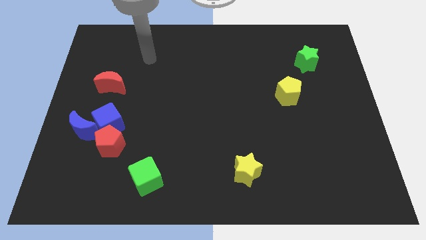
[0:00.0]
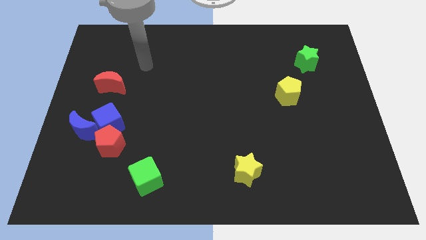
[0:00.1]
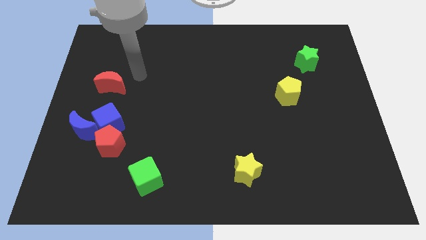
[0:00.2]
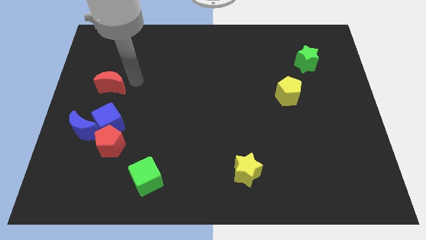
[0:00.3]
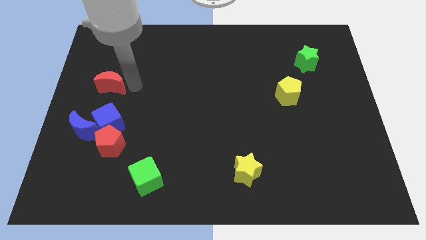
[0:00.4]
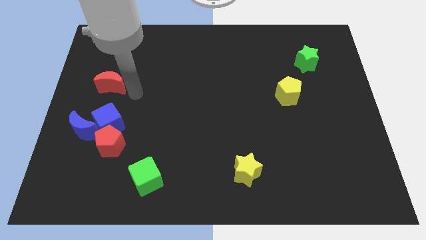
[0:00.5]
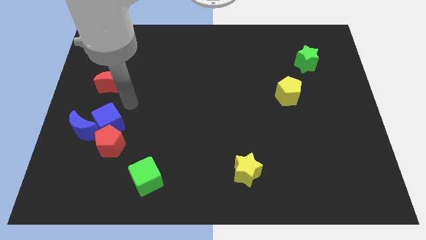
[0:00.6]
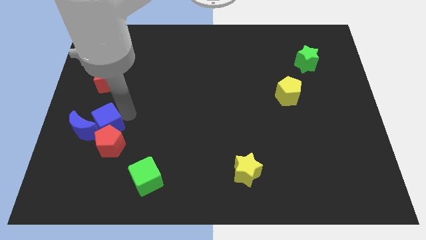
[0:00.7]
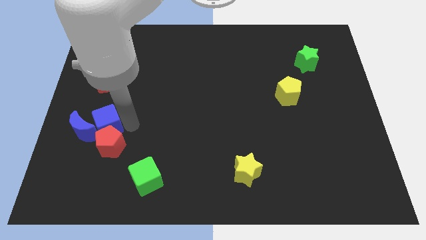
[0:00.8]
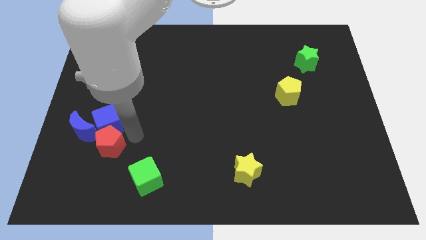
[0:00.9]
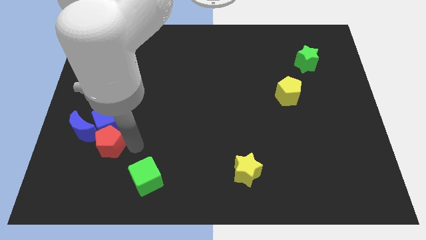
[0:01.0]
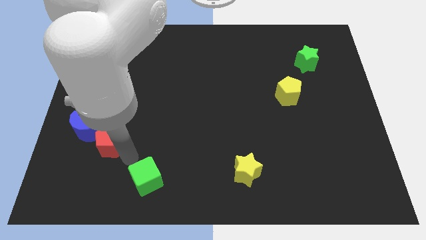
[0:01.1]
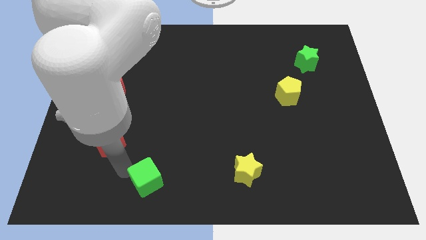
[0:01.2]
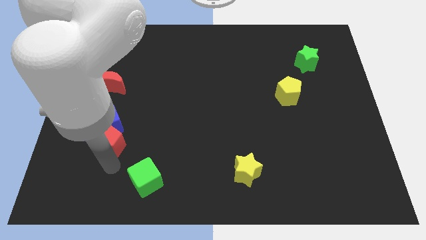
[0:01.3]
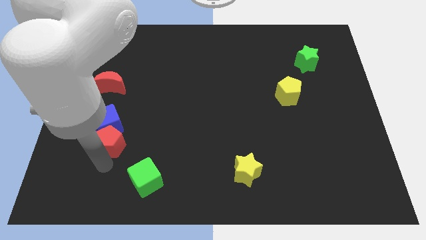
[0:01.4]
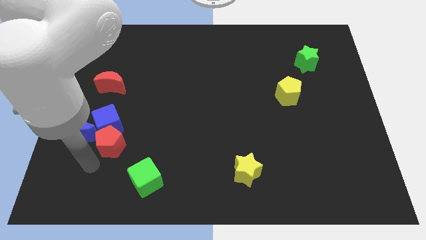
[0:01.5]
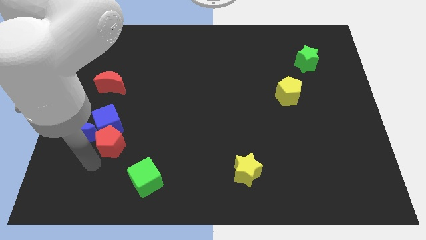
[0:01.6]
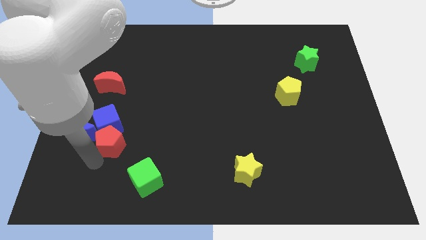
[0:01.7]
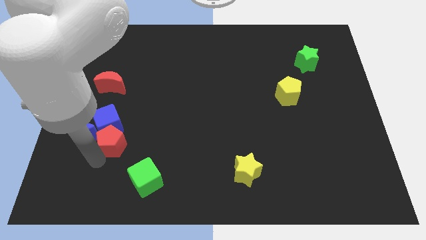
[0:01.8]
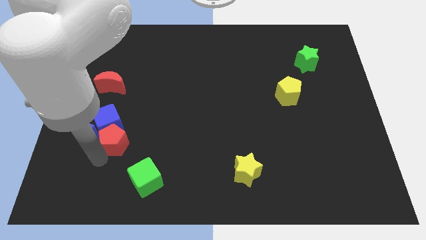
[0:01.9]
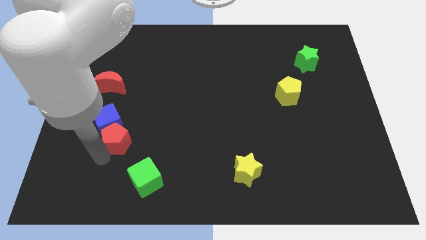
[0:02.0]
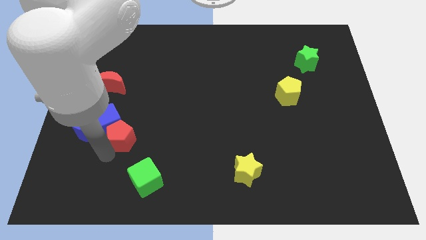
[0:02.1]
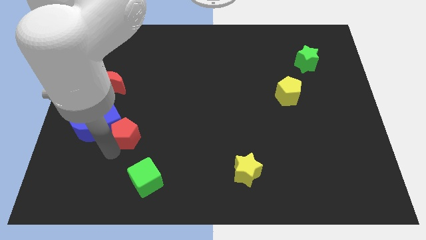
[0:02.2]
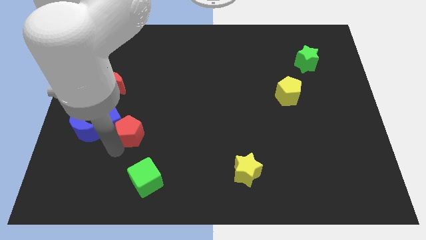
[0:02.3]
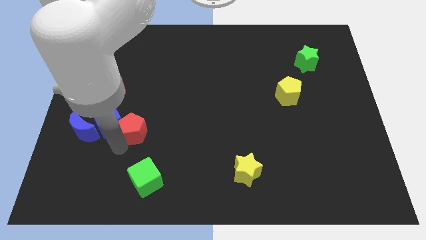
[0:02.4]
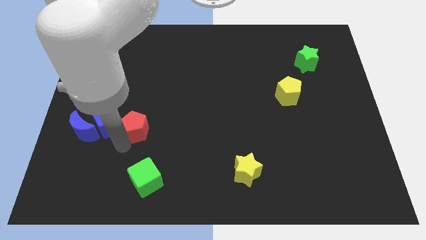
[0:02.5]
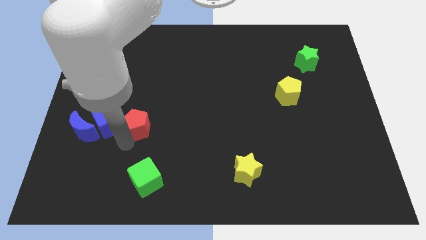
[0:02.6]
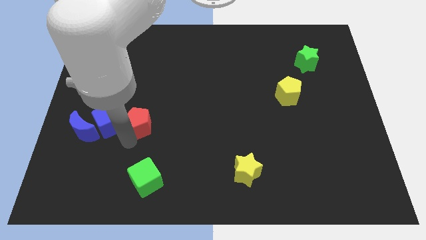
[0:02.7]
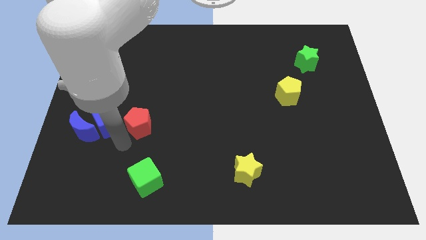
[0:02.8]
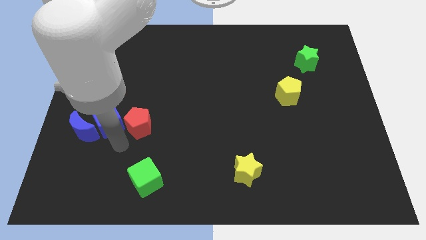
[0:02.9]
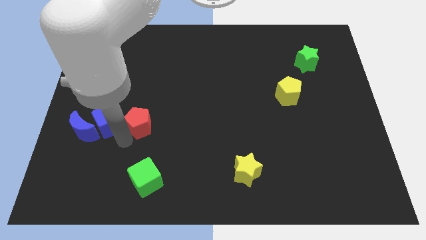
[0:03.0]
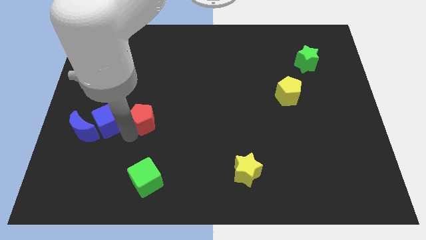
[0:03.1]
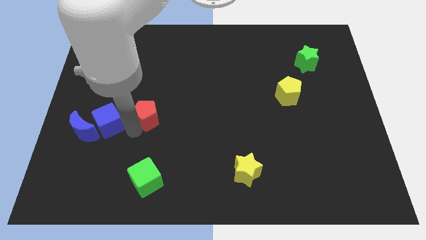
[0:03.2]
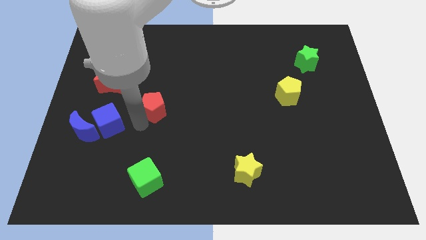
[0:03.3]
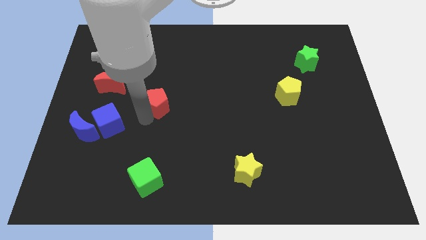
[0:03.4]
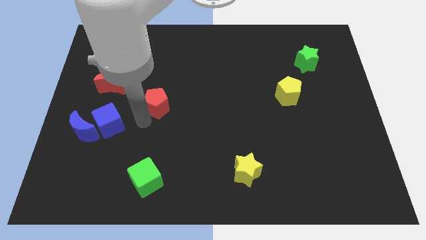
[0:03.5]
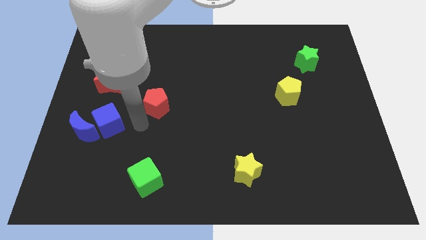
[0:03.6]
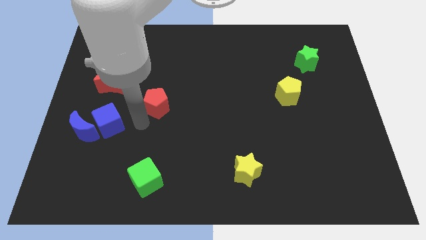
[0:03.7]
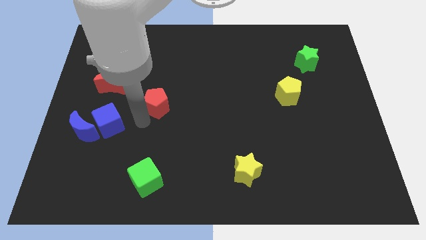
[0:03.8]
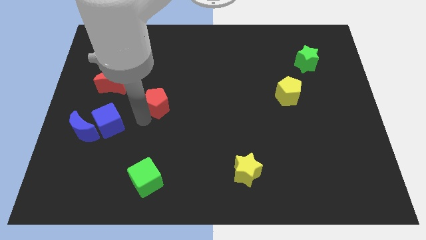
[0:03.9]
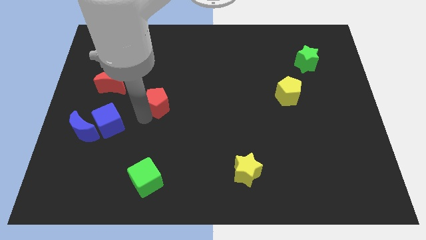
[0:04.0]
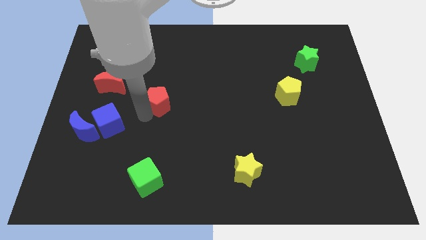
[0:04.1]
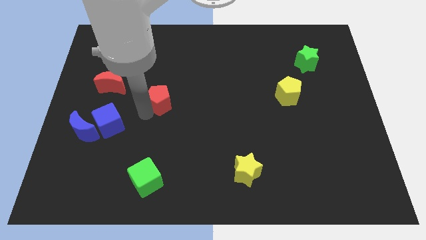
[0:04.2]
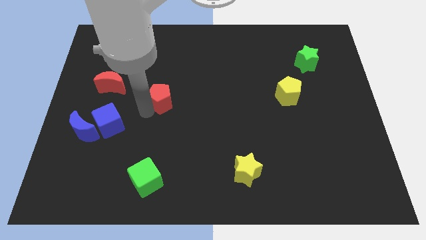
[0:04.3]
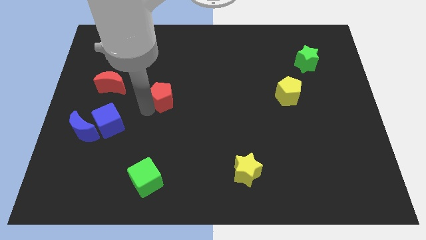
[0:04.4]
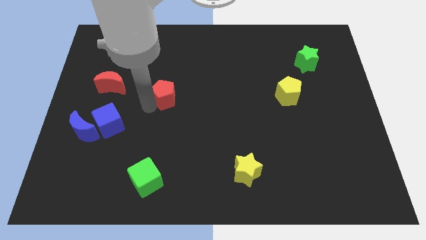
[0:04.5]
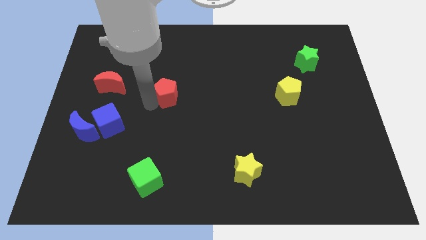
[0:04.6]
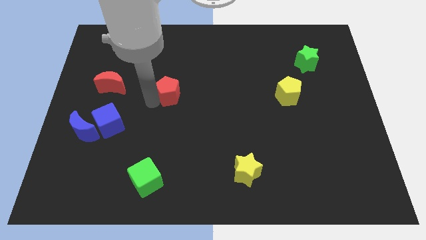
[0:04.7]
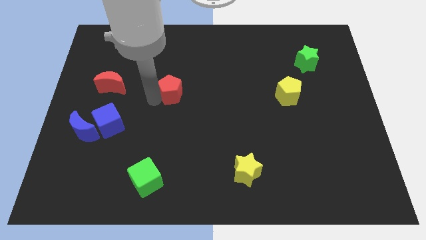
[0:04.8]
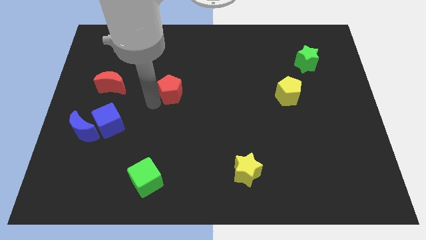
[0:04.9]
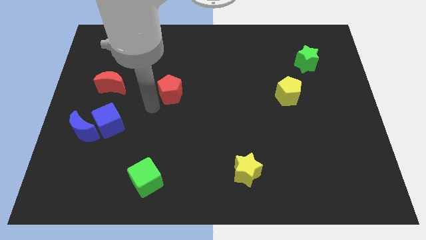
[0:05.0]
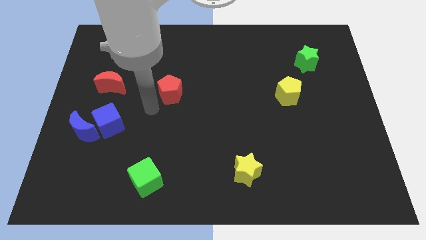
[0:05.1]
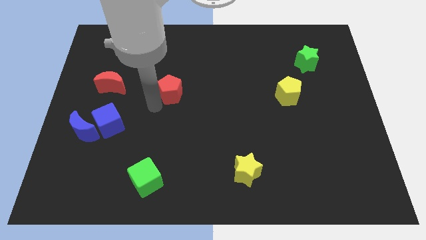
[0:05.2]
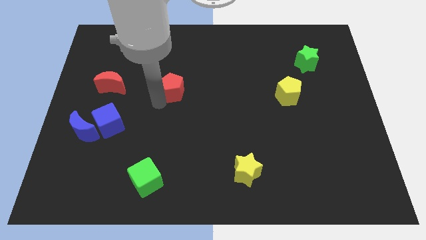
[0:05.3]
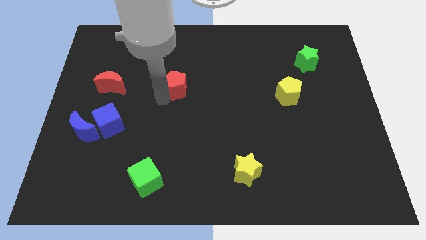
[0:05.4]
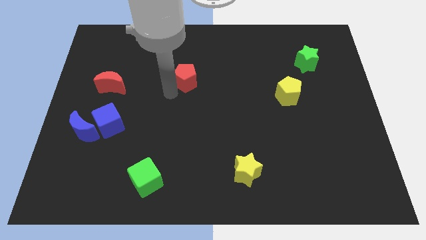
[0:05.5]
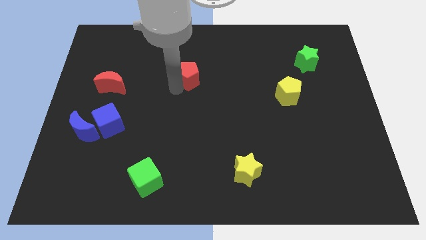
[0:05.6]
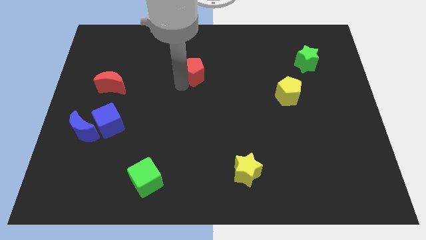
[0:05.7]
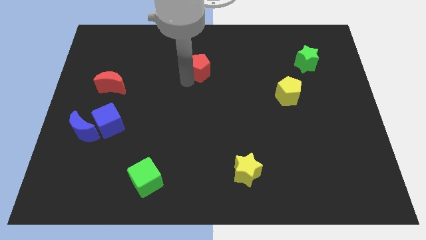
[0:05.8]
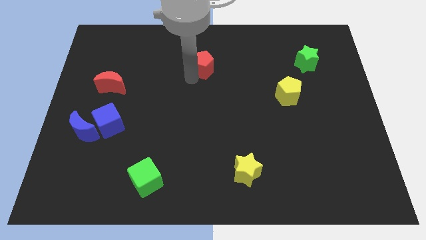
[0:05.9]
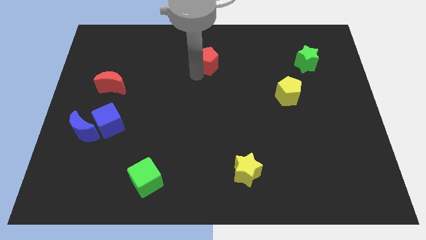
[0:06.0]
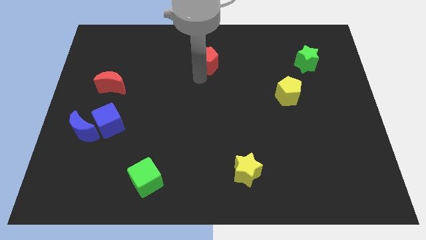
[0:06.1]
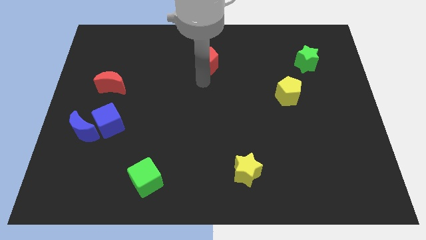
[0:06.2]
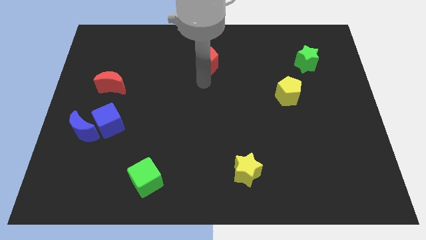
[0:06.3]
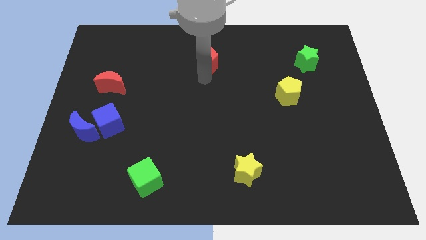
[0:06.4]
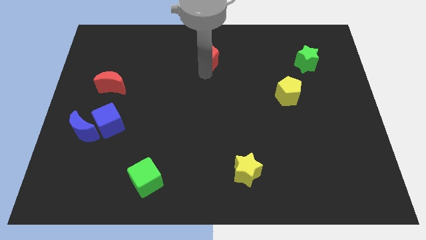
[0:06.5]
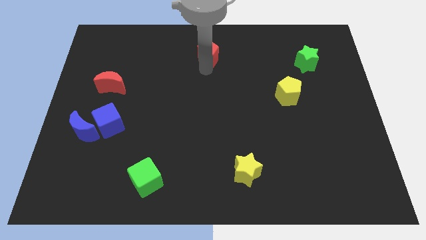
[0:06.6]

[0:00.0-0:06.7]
slide the red pentagon to the top
